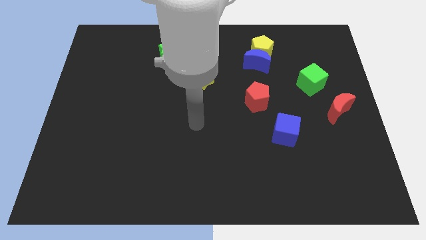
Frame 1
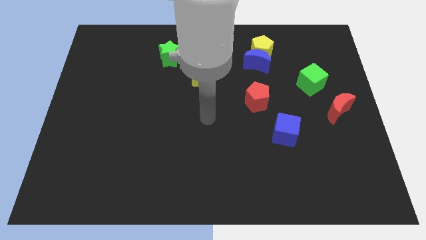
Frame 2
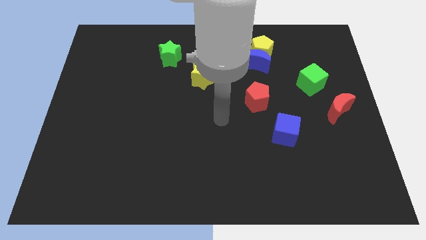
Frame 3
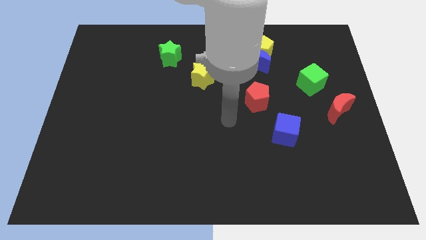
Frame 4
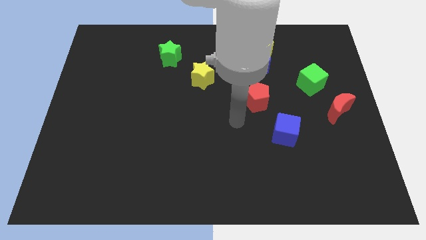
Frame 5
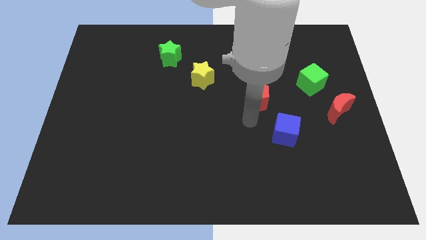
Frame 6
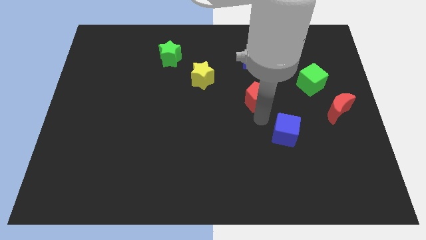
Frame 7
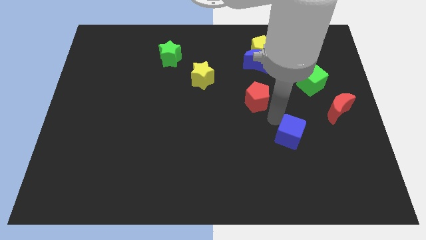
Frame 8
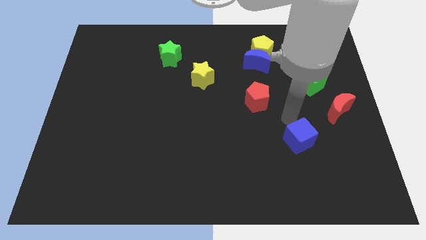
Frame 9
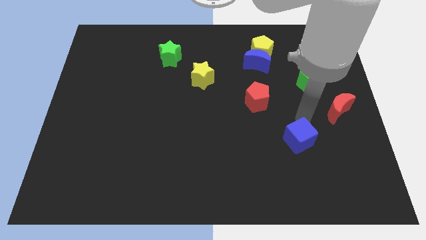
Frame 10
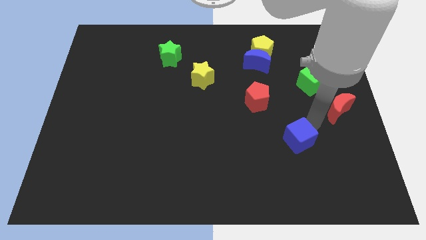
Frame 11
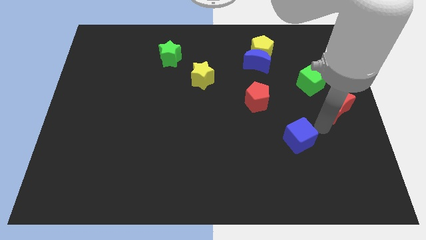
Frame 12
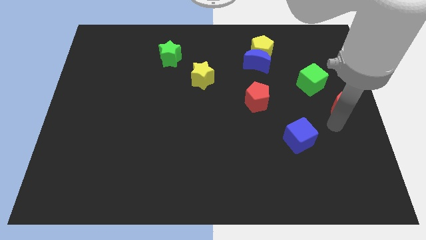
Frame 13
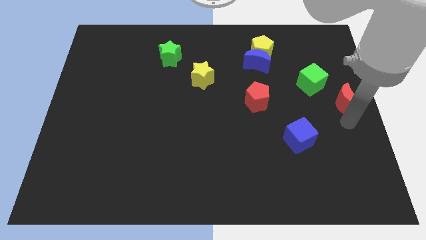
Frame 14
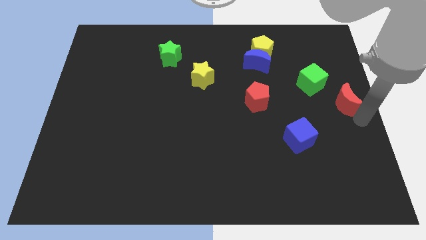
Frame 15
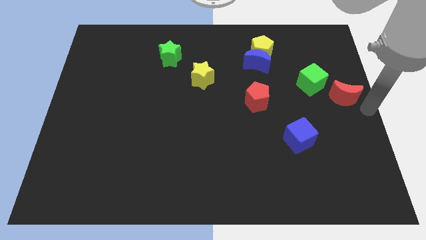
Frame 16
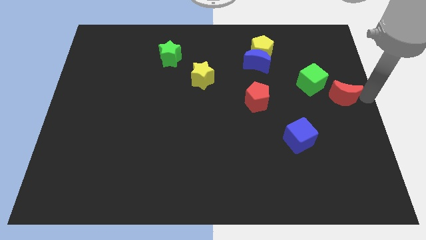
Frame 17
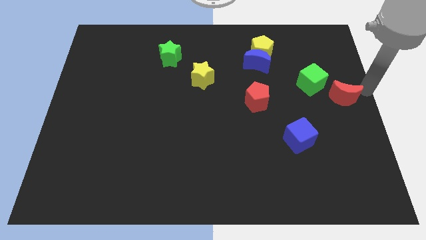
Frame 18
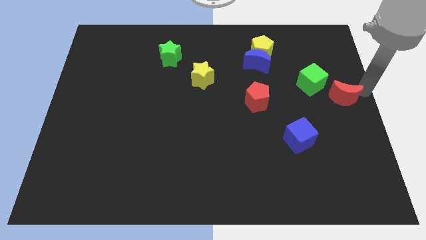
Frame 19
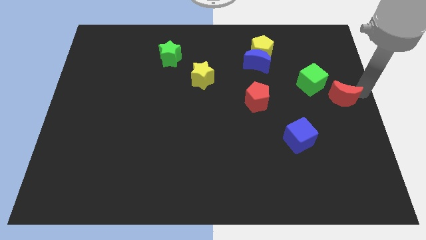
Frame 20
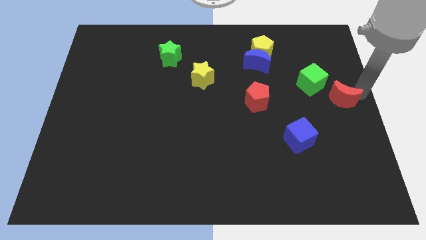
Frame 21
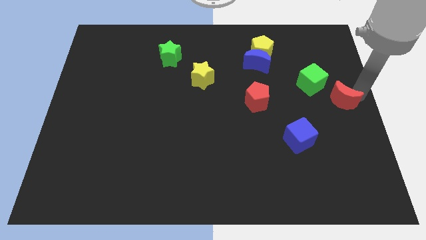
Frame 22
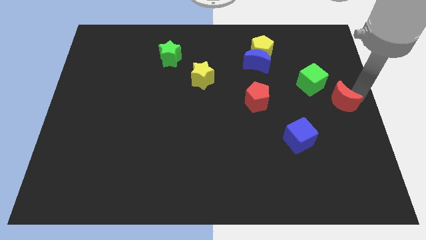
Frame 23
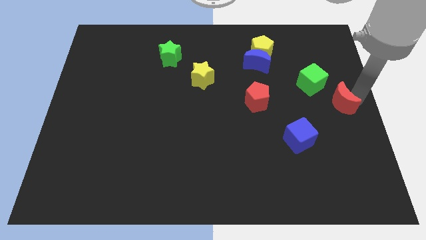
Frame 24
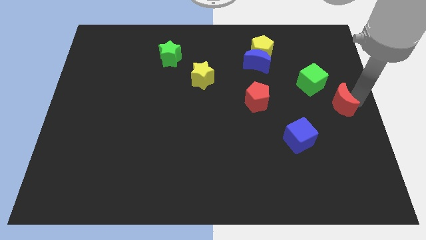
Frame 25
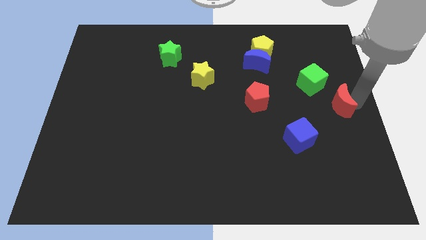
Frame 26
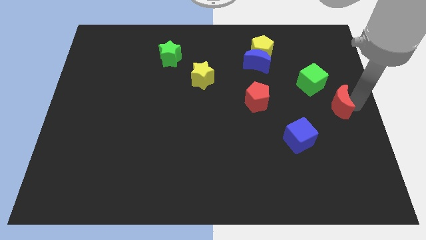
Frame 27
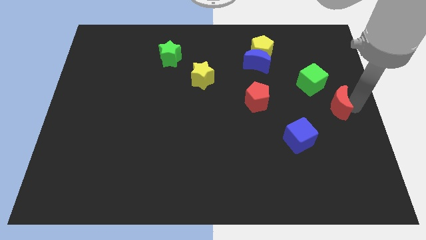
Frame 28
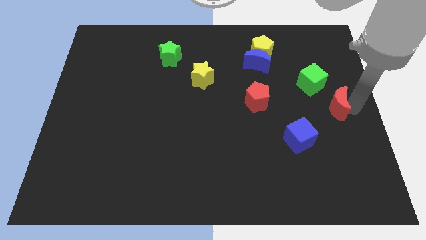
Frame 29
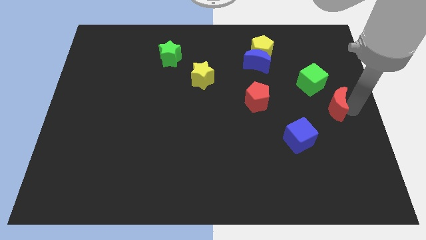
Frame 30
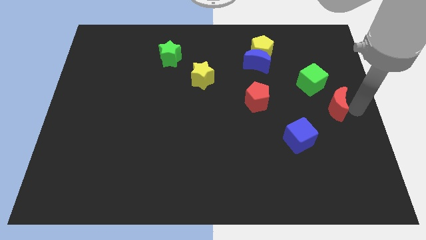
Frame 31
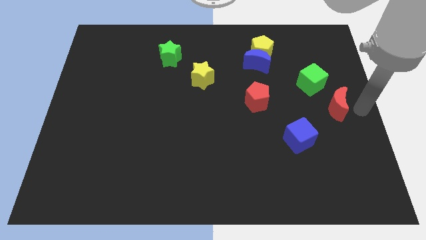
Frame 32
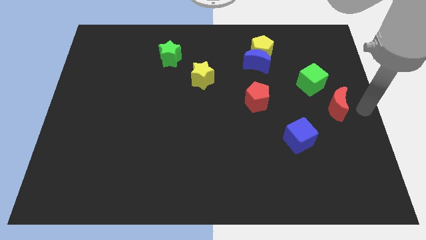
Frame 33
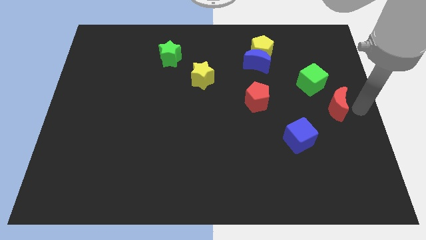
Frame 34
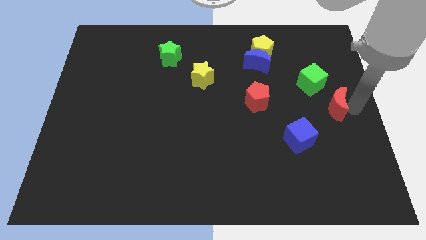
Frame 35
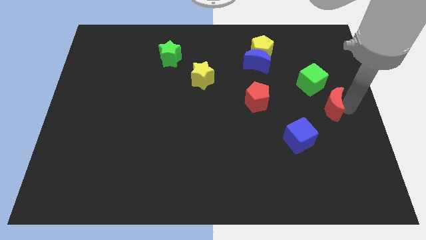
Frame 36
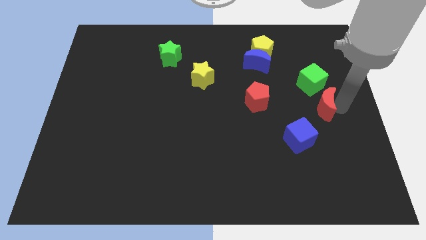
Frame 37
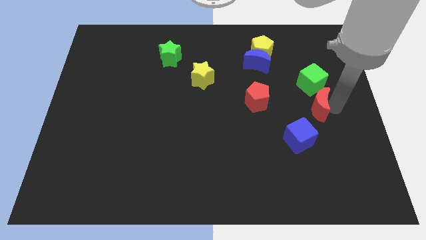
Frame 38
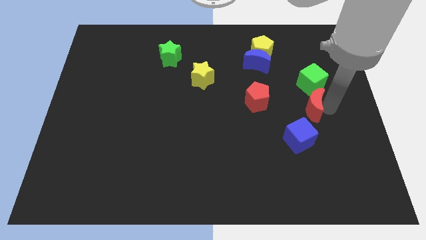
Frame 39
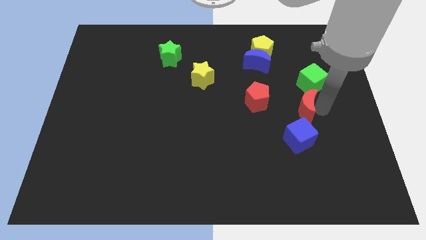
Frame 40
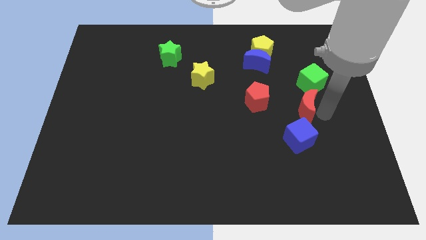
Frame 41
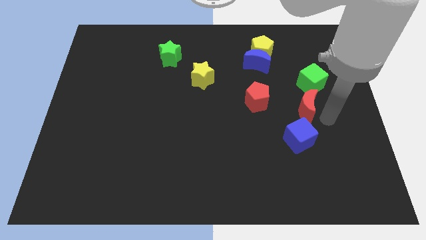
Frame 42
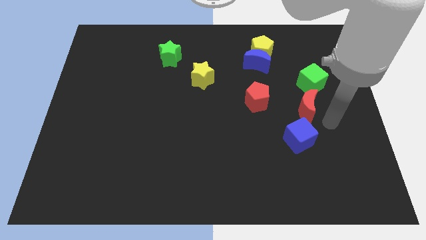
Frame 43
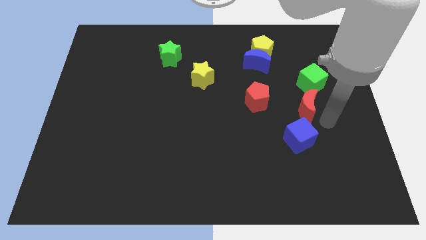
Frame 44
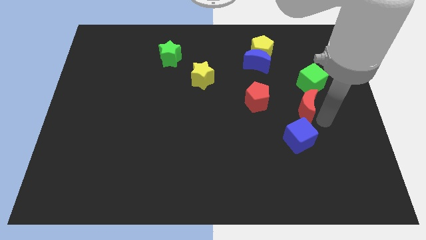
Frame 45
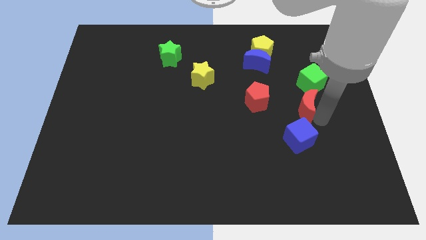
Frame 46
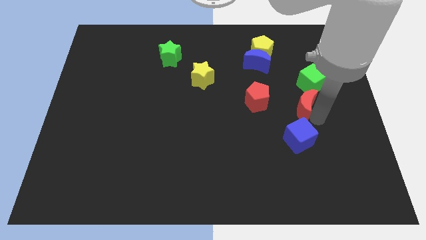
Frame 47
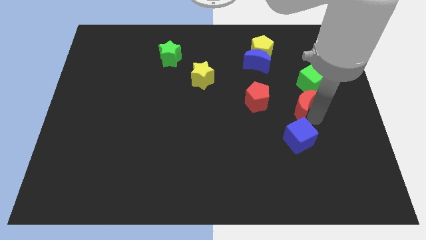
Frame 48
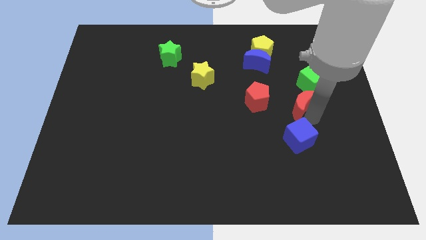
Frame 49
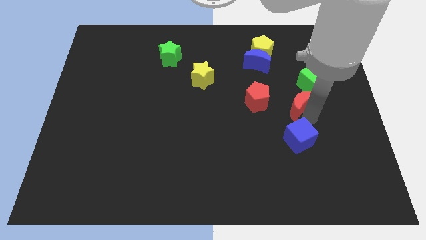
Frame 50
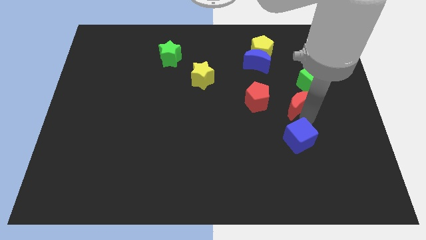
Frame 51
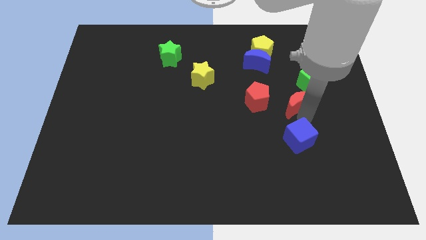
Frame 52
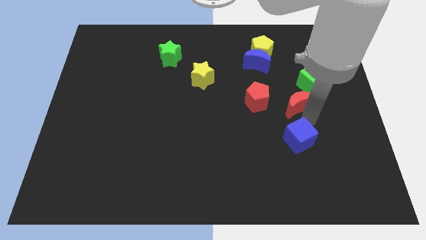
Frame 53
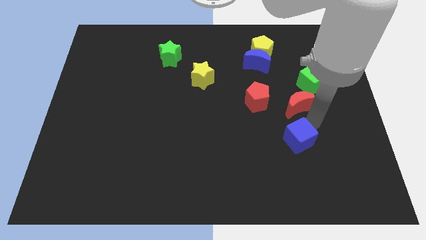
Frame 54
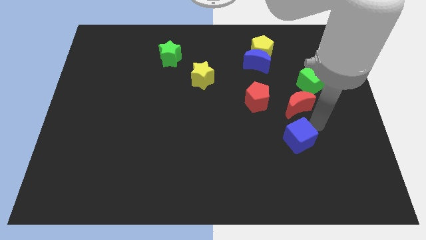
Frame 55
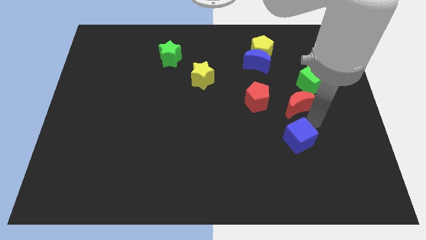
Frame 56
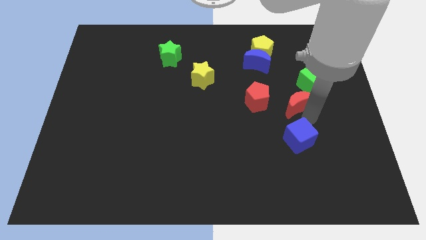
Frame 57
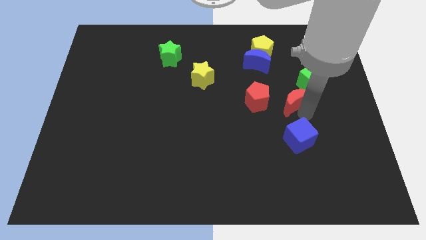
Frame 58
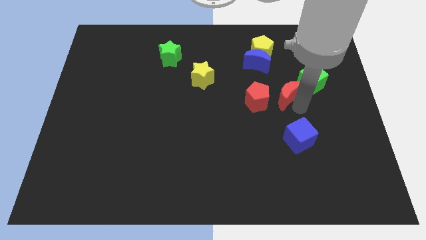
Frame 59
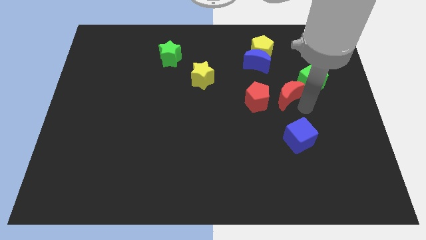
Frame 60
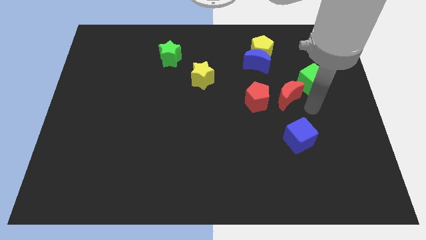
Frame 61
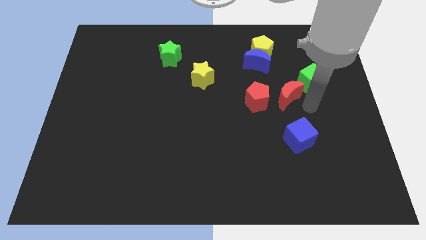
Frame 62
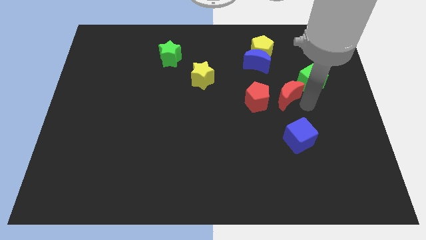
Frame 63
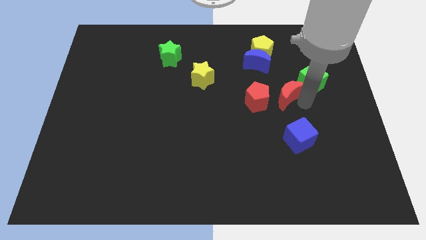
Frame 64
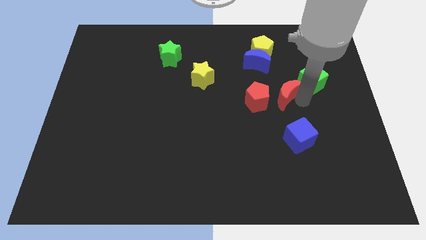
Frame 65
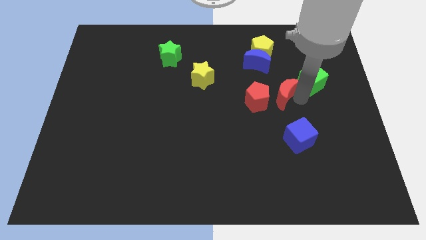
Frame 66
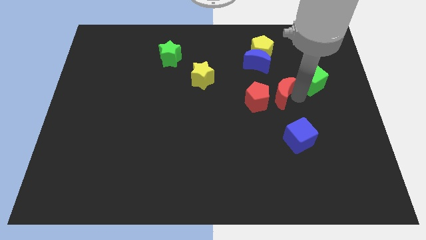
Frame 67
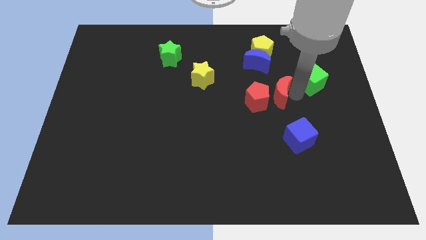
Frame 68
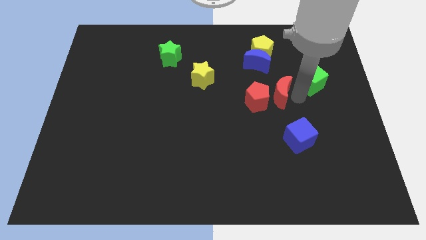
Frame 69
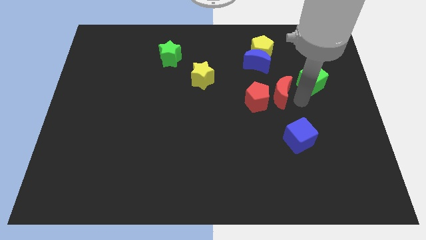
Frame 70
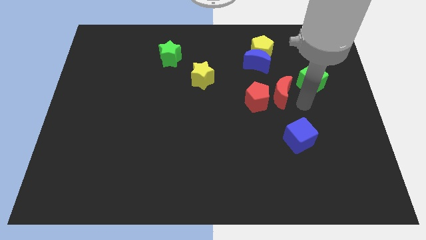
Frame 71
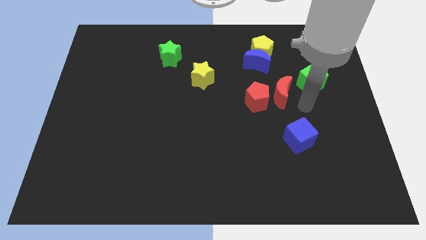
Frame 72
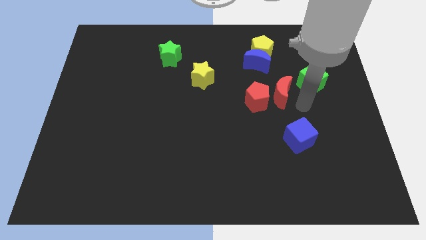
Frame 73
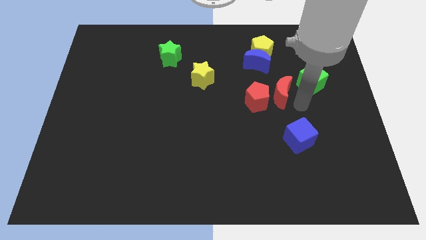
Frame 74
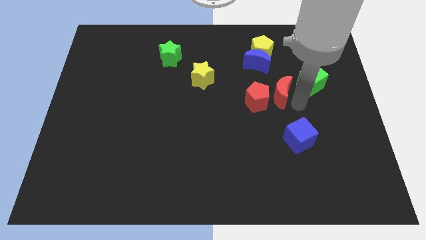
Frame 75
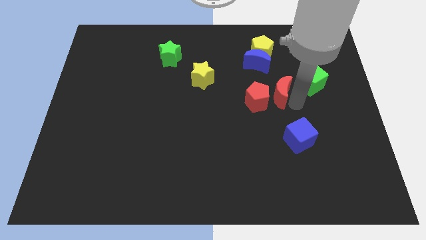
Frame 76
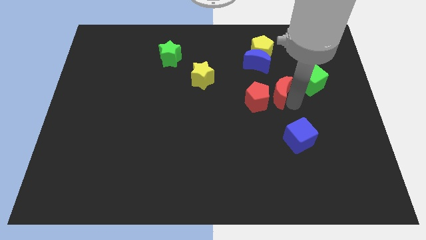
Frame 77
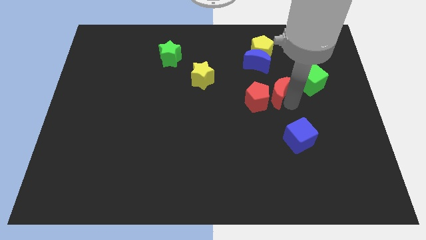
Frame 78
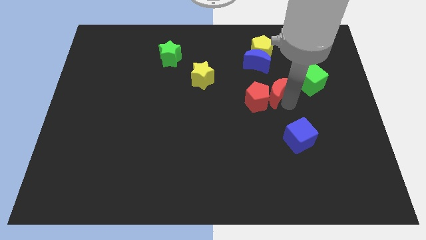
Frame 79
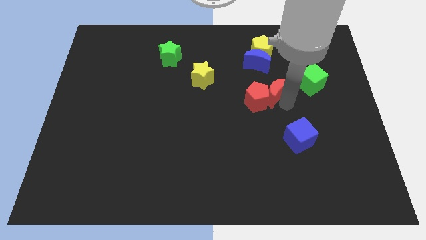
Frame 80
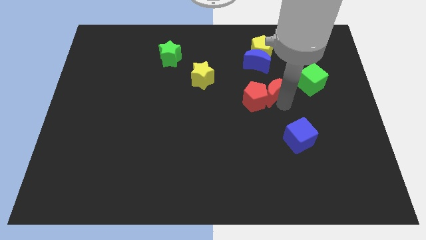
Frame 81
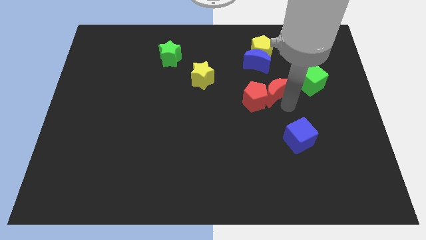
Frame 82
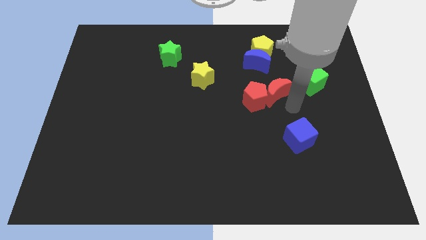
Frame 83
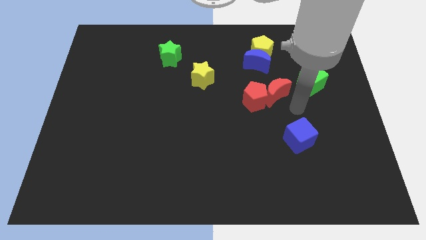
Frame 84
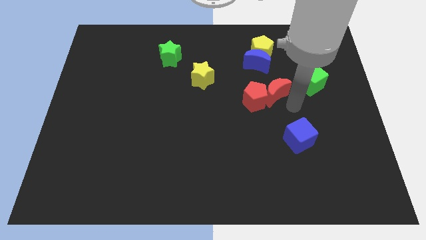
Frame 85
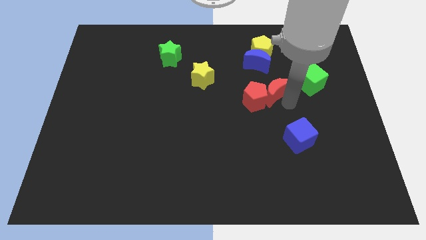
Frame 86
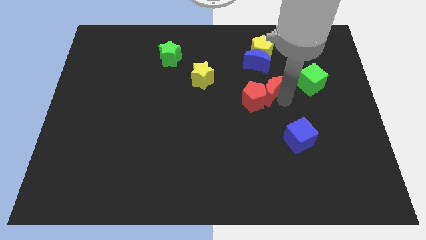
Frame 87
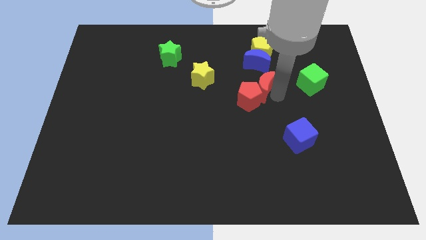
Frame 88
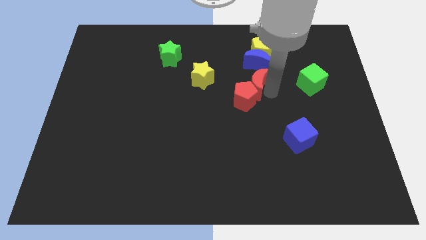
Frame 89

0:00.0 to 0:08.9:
put the red moon just right of the yellow star
